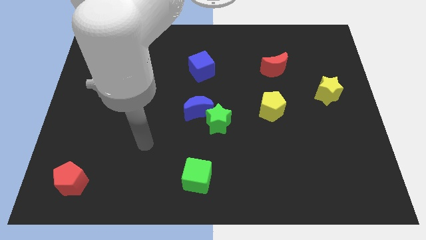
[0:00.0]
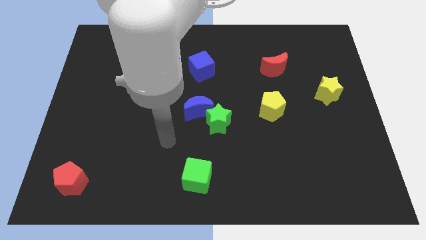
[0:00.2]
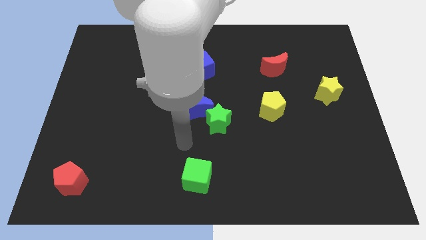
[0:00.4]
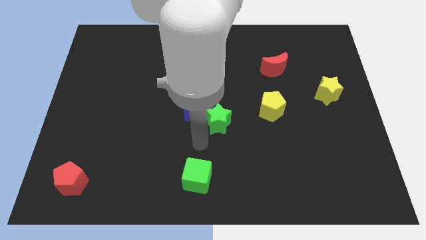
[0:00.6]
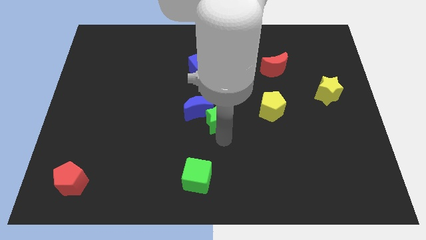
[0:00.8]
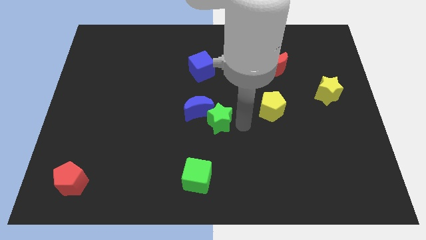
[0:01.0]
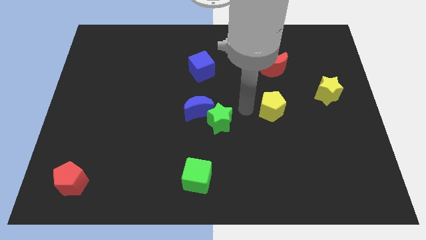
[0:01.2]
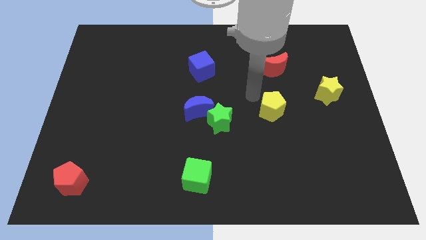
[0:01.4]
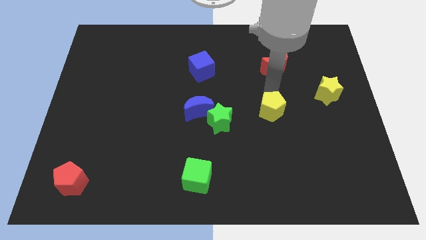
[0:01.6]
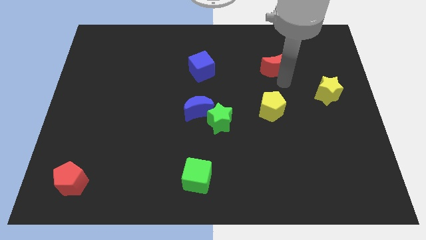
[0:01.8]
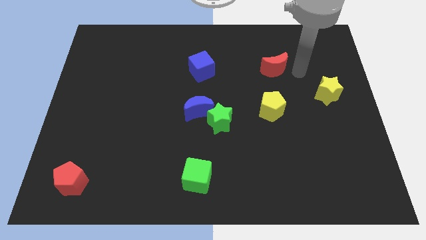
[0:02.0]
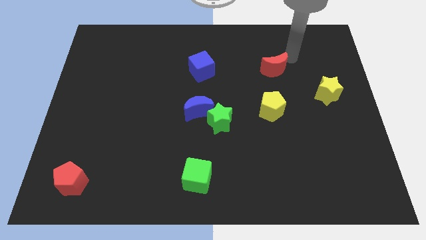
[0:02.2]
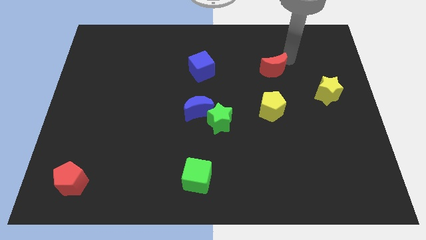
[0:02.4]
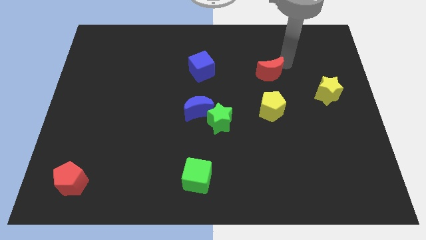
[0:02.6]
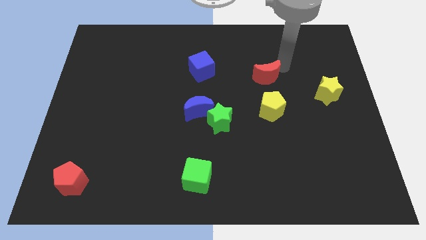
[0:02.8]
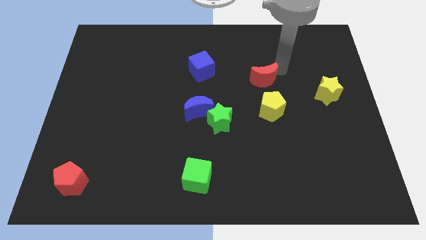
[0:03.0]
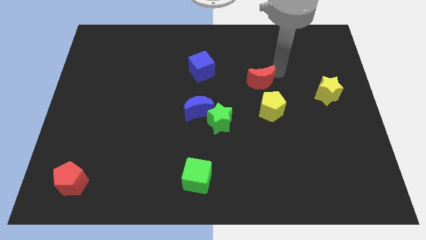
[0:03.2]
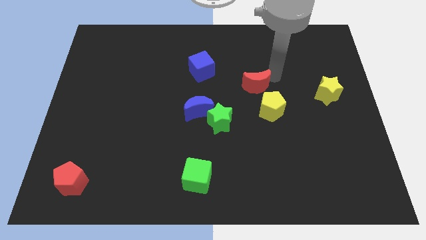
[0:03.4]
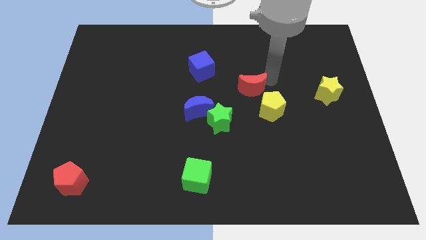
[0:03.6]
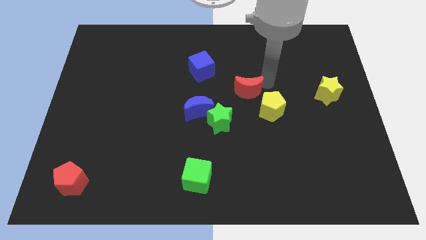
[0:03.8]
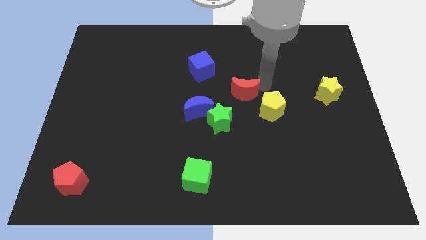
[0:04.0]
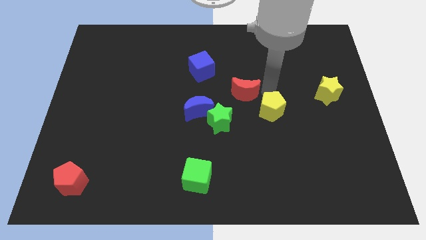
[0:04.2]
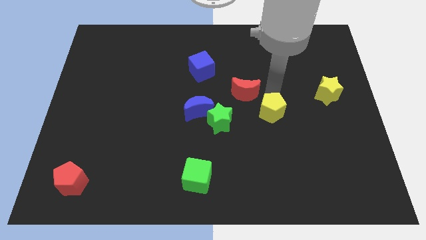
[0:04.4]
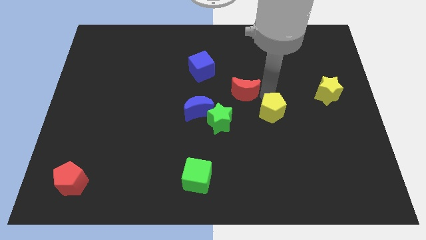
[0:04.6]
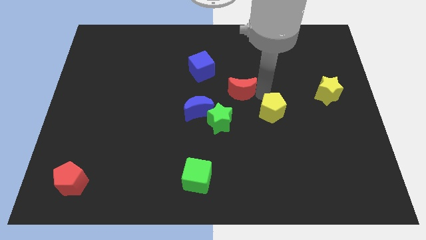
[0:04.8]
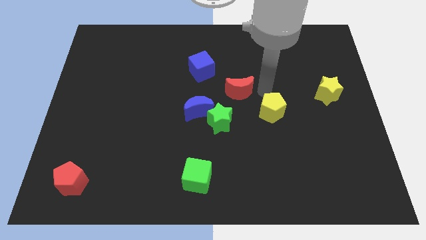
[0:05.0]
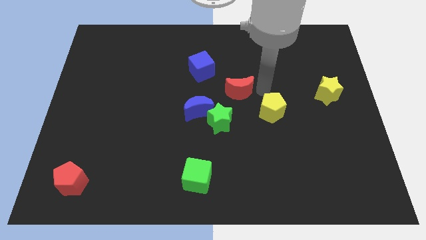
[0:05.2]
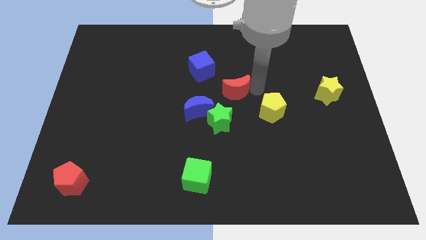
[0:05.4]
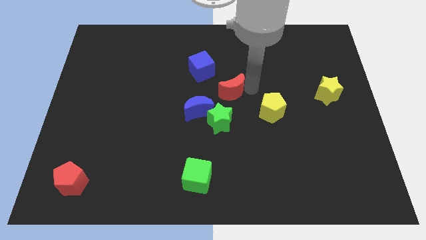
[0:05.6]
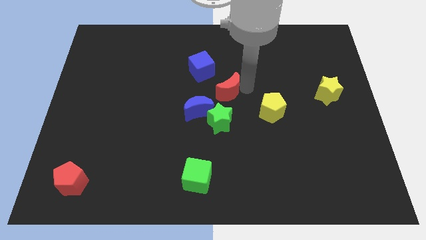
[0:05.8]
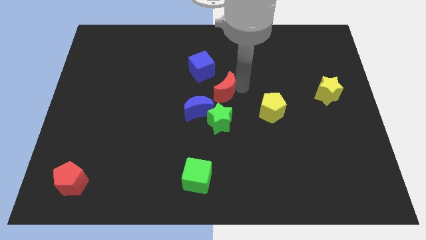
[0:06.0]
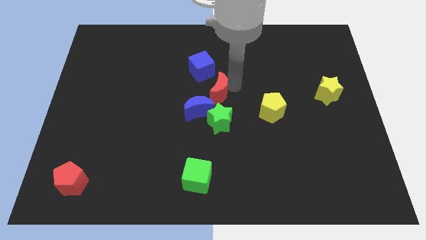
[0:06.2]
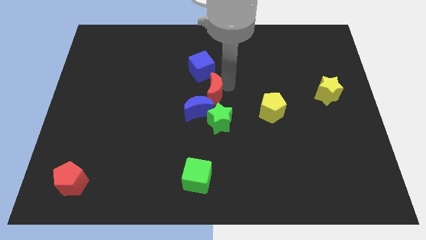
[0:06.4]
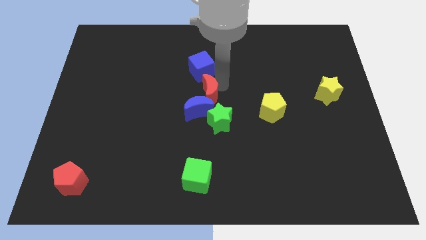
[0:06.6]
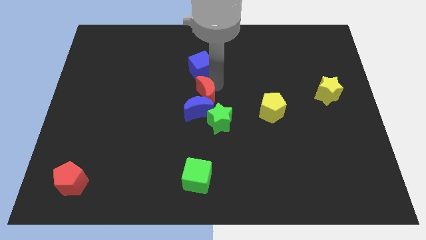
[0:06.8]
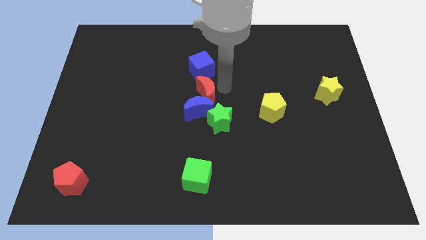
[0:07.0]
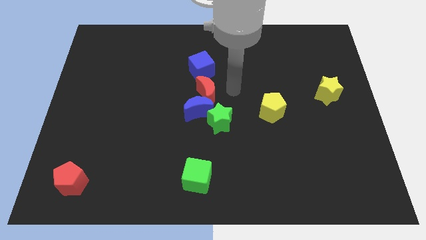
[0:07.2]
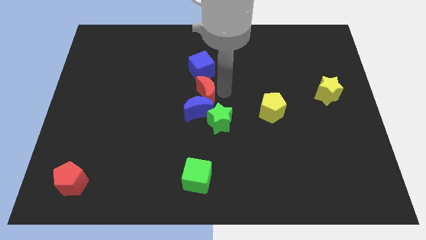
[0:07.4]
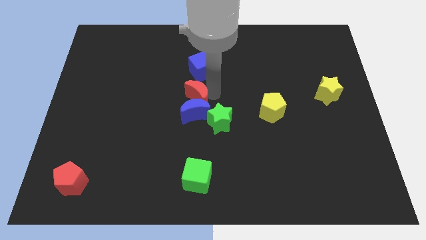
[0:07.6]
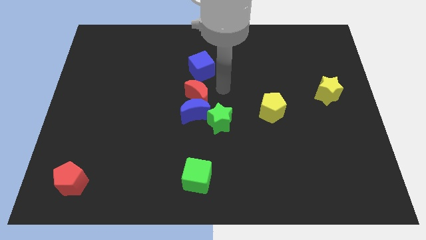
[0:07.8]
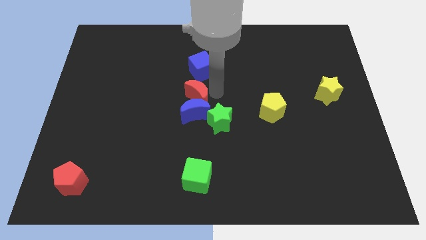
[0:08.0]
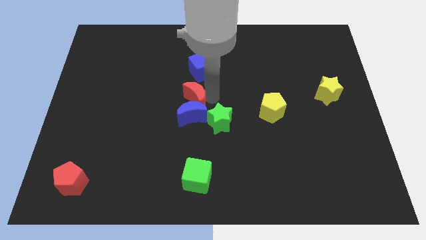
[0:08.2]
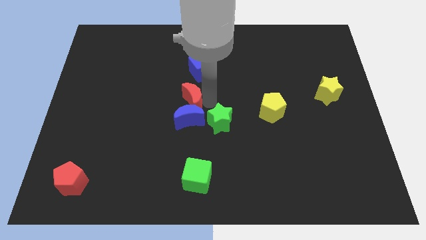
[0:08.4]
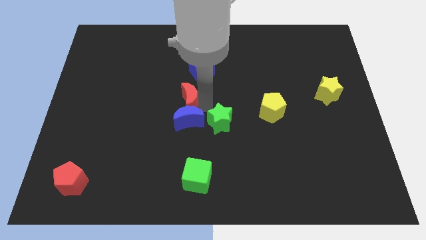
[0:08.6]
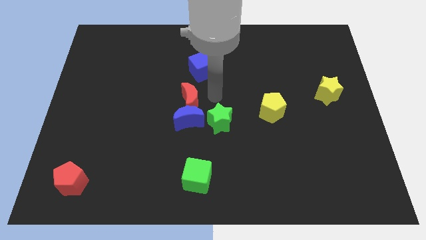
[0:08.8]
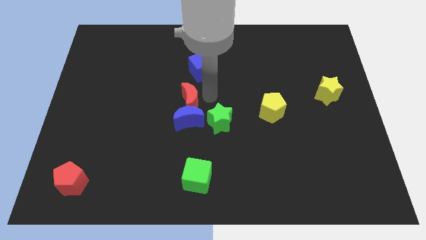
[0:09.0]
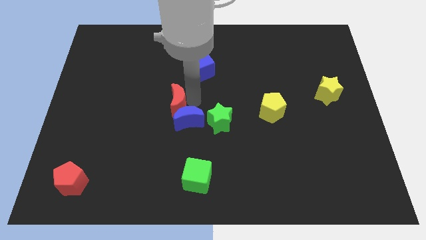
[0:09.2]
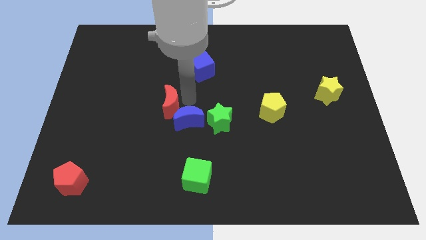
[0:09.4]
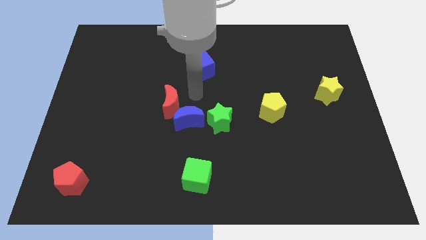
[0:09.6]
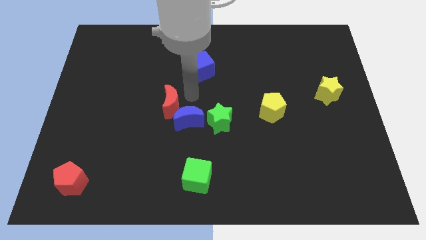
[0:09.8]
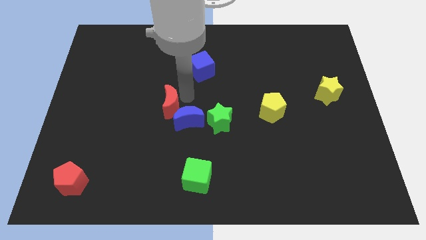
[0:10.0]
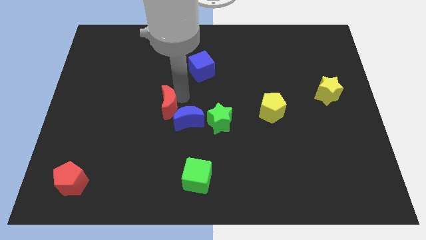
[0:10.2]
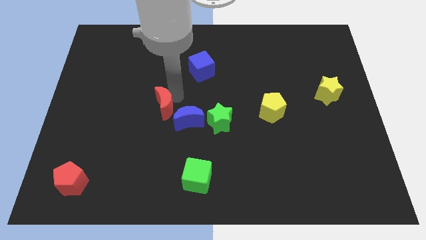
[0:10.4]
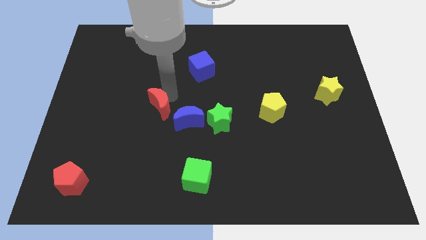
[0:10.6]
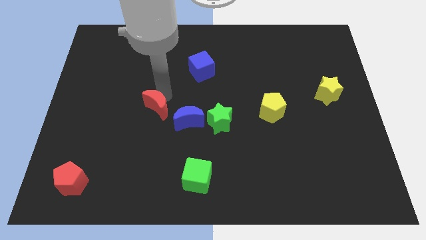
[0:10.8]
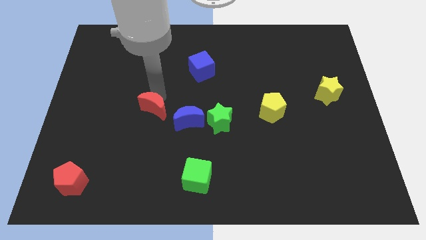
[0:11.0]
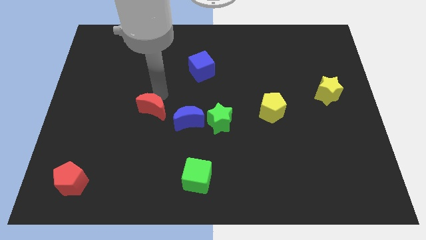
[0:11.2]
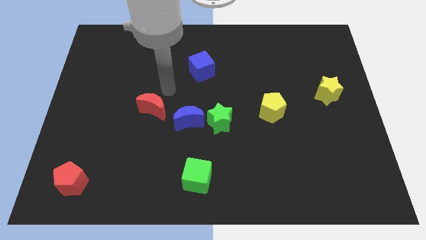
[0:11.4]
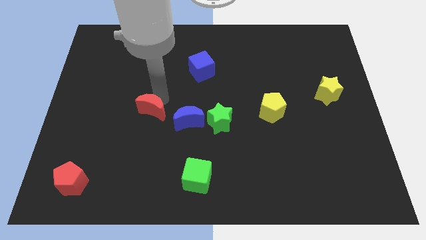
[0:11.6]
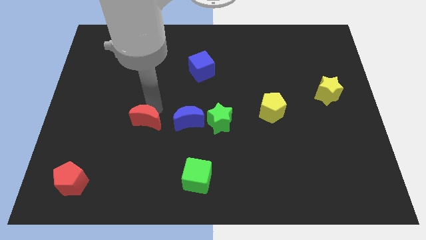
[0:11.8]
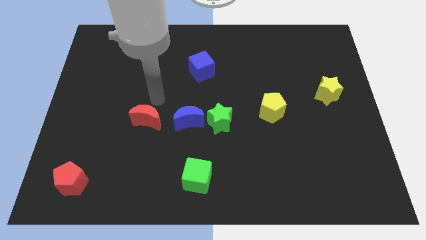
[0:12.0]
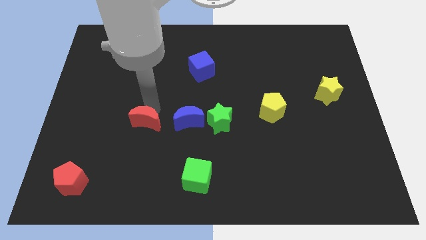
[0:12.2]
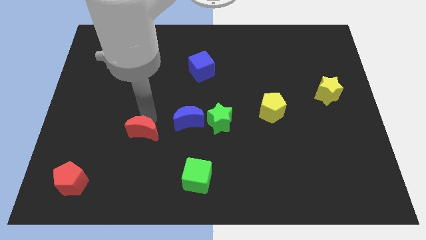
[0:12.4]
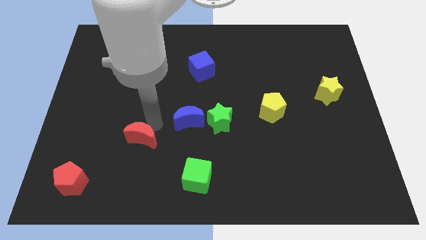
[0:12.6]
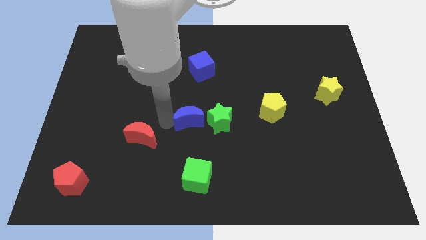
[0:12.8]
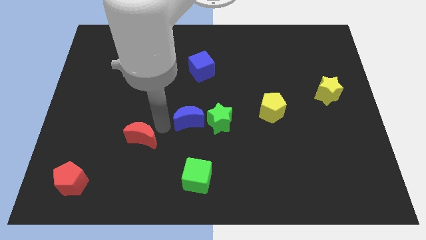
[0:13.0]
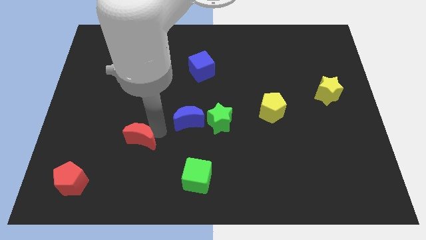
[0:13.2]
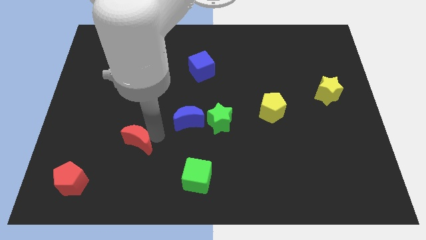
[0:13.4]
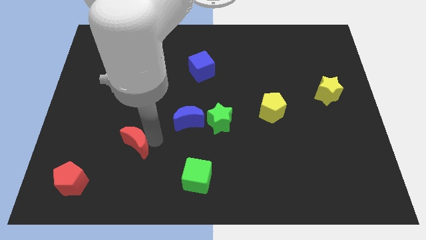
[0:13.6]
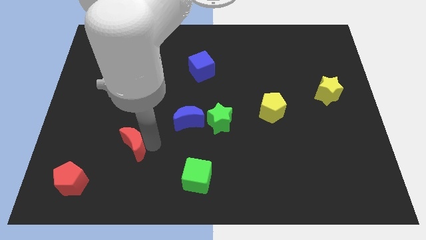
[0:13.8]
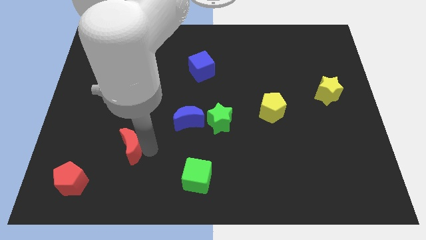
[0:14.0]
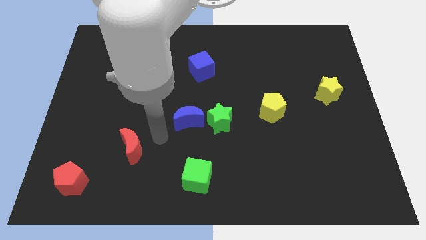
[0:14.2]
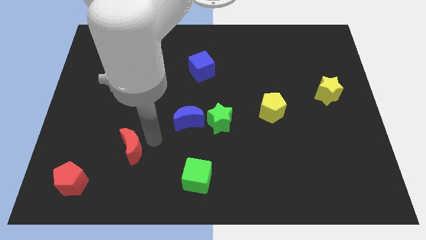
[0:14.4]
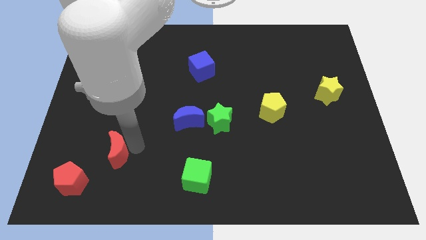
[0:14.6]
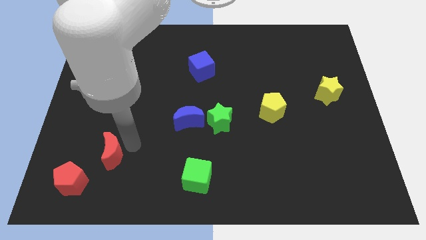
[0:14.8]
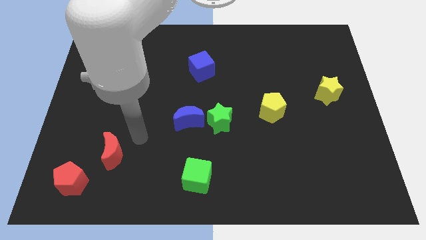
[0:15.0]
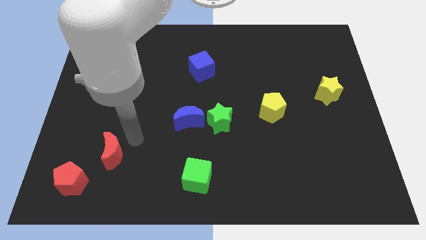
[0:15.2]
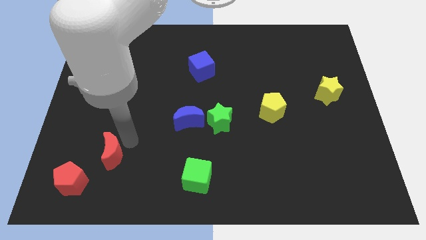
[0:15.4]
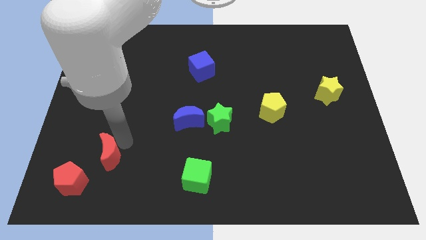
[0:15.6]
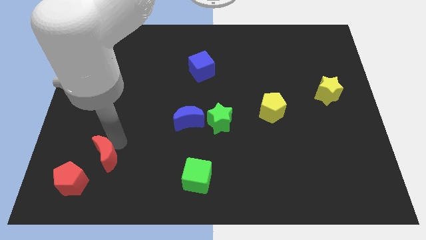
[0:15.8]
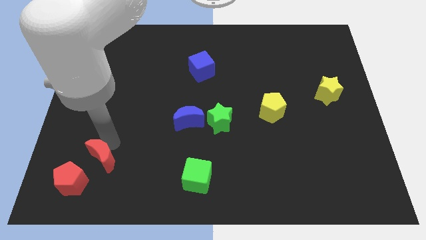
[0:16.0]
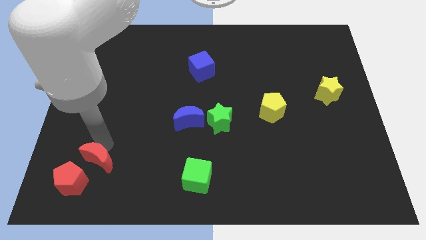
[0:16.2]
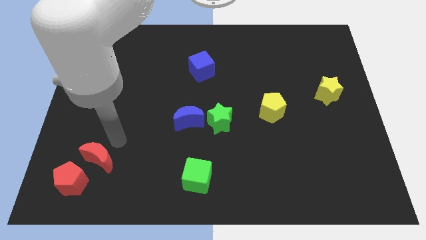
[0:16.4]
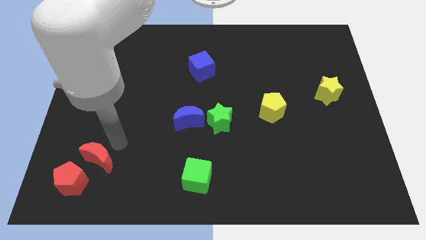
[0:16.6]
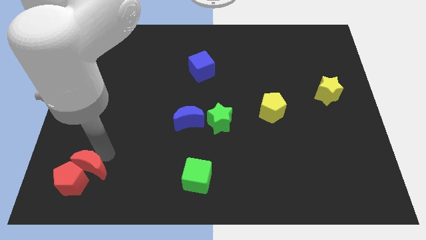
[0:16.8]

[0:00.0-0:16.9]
push the red moon next to the red pentagon
